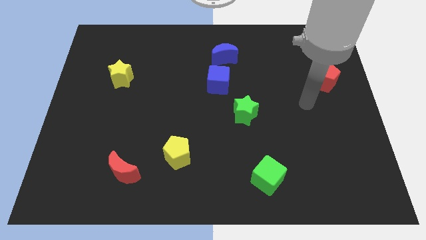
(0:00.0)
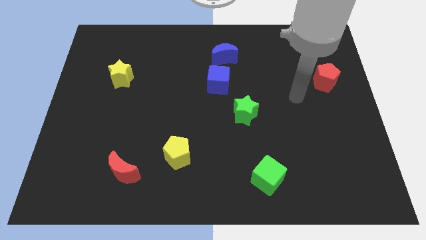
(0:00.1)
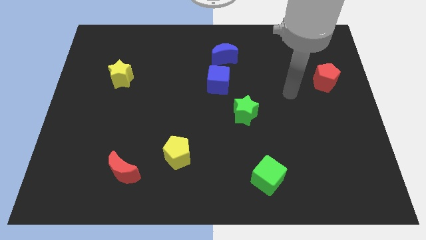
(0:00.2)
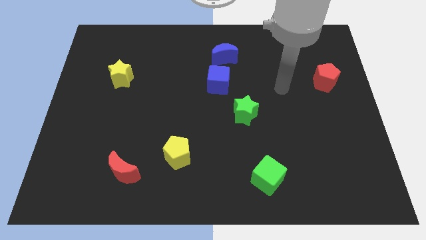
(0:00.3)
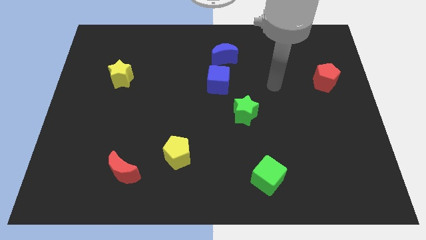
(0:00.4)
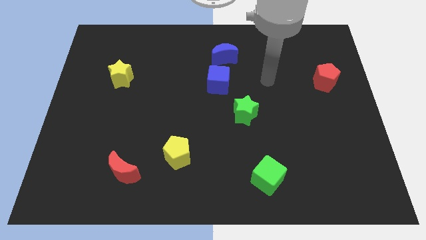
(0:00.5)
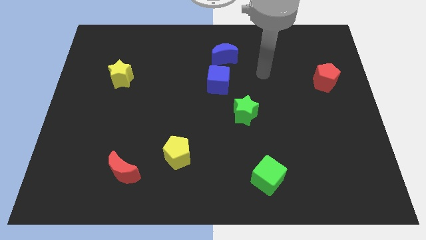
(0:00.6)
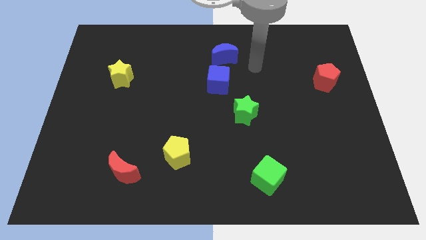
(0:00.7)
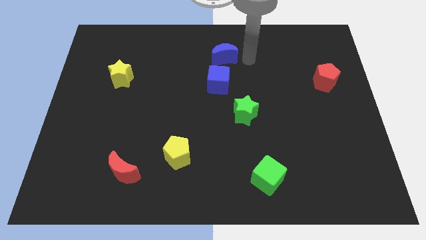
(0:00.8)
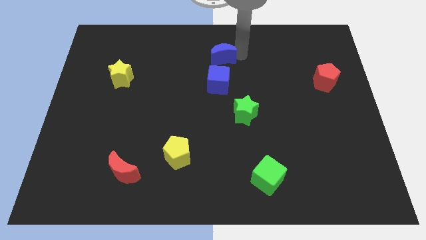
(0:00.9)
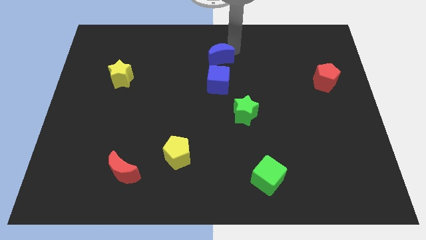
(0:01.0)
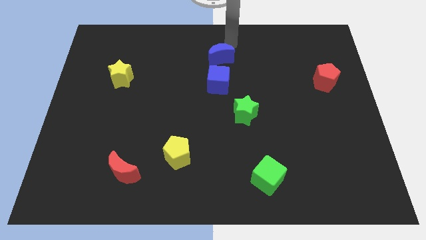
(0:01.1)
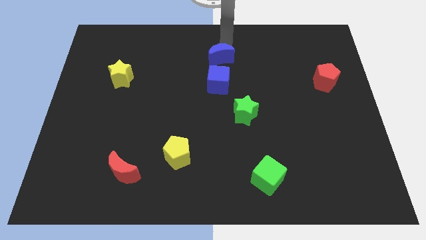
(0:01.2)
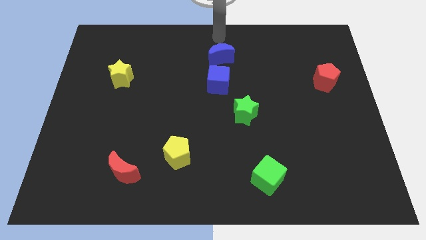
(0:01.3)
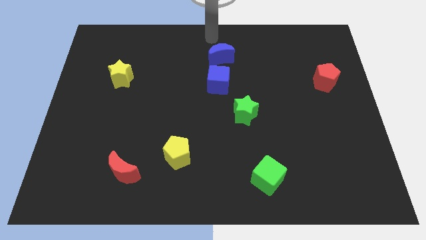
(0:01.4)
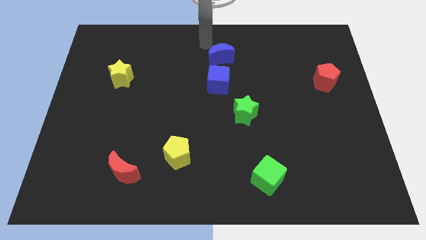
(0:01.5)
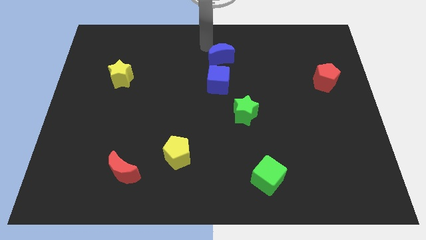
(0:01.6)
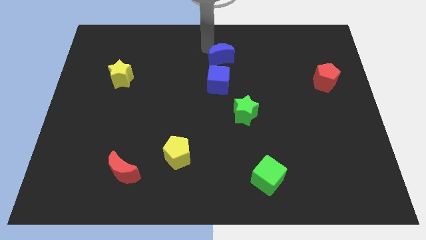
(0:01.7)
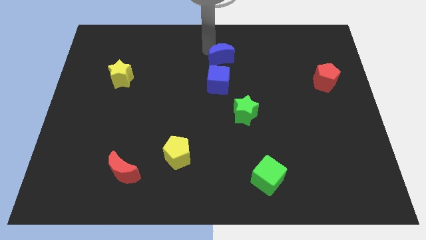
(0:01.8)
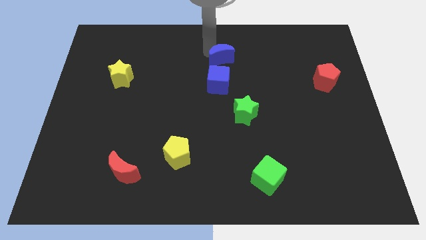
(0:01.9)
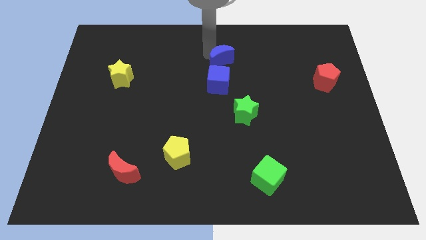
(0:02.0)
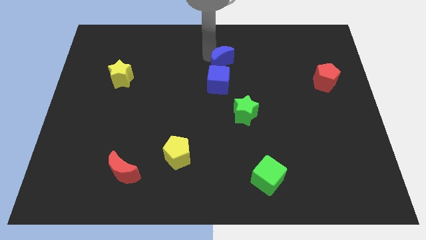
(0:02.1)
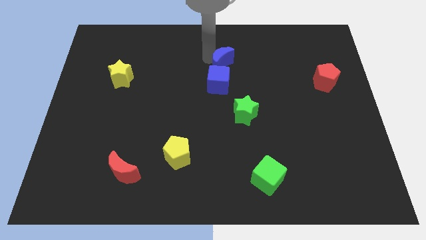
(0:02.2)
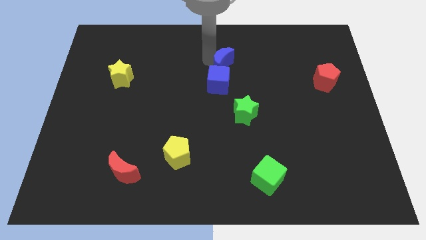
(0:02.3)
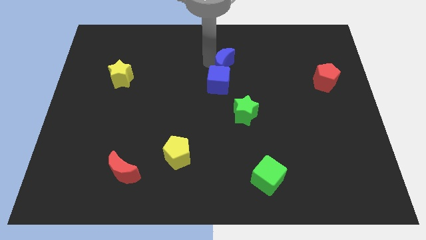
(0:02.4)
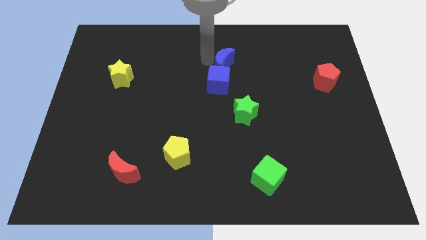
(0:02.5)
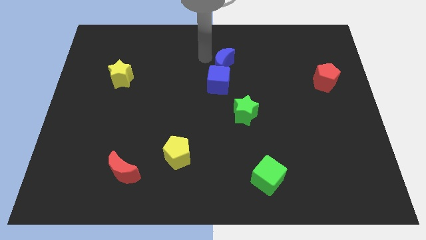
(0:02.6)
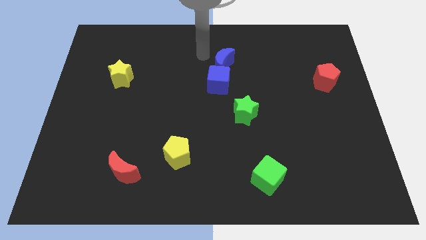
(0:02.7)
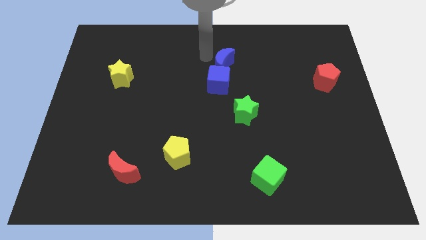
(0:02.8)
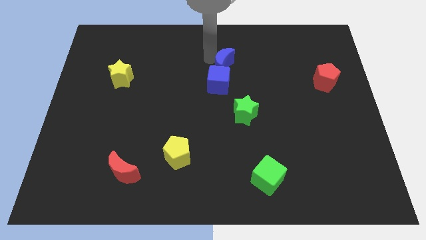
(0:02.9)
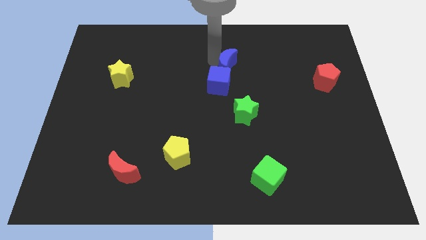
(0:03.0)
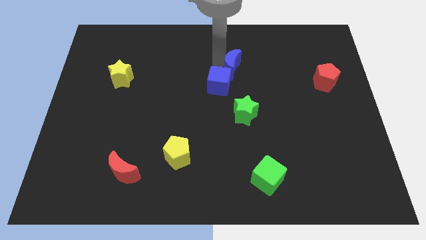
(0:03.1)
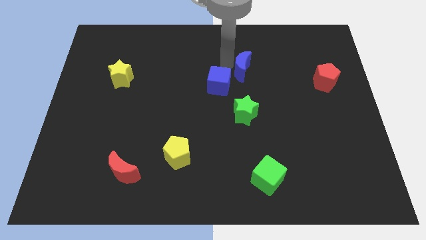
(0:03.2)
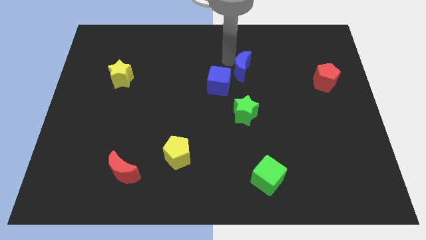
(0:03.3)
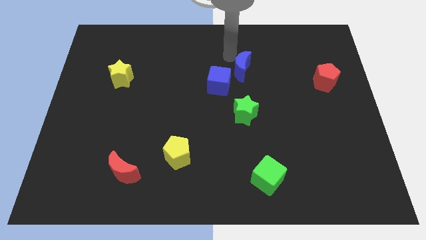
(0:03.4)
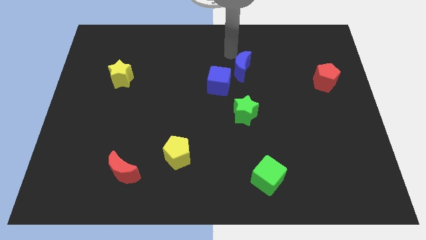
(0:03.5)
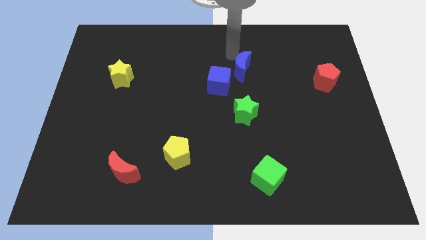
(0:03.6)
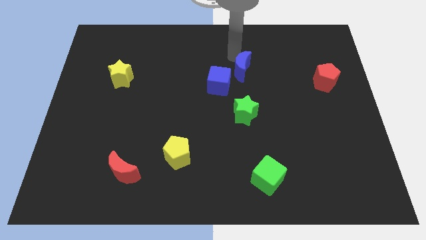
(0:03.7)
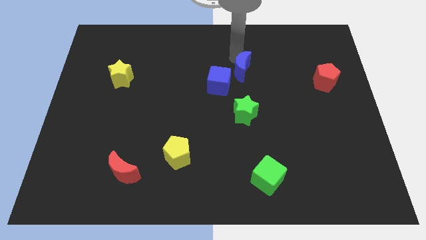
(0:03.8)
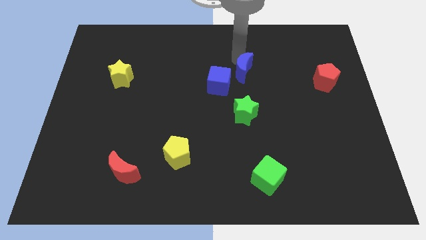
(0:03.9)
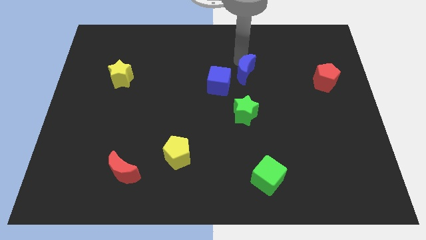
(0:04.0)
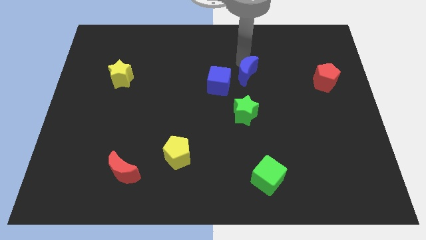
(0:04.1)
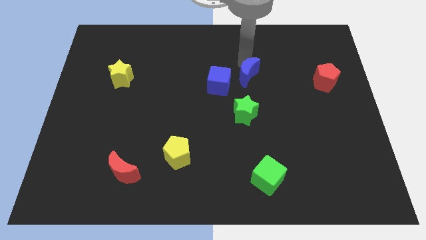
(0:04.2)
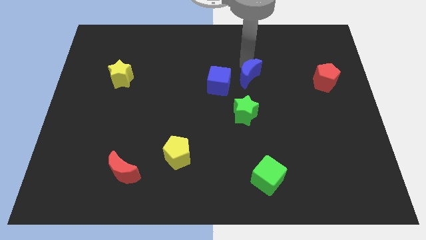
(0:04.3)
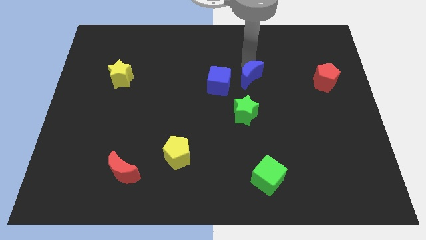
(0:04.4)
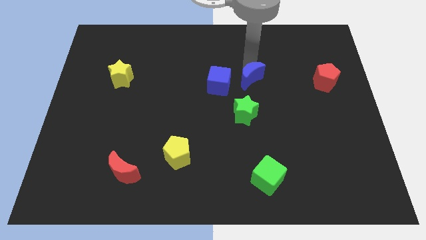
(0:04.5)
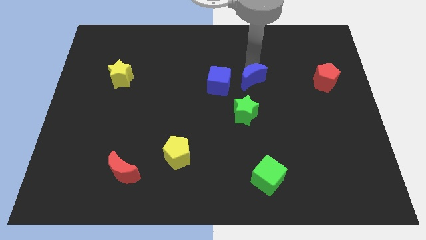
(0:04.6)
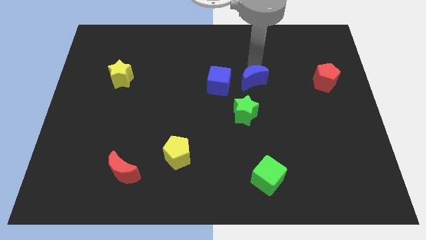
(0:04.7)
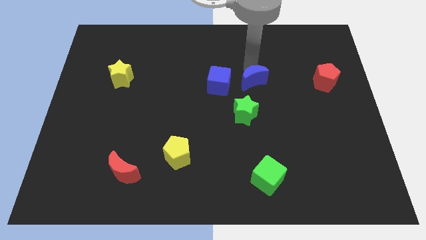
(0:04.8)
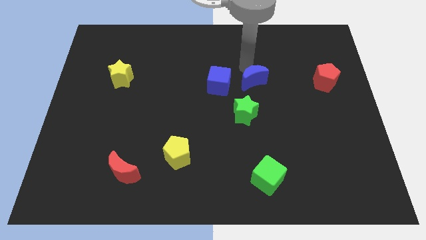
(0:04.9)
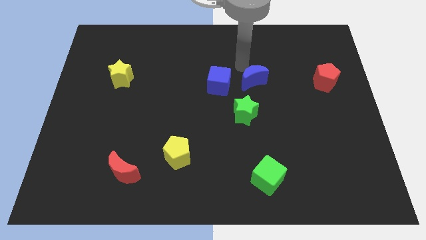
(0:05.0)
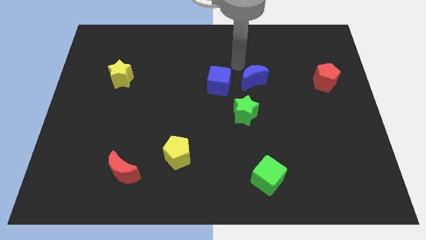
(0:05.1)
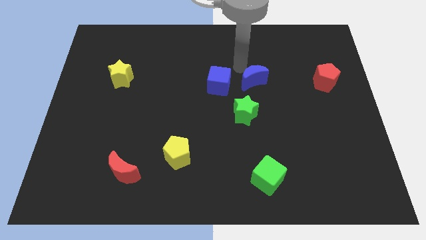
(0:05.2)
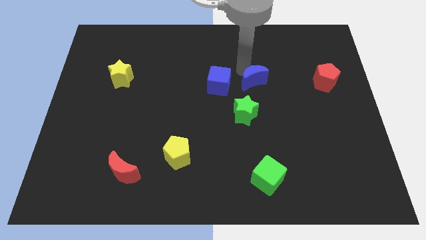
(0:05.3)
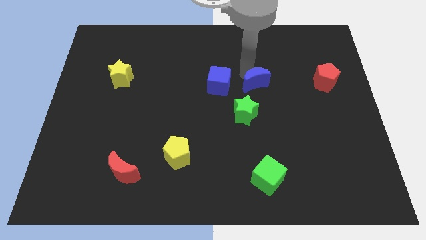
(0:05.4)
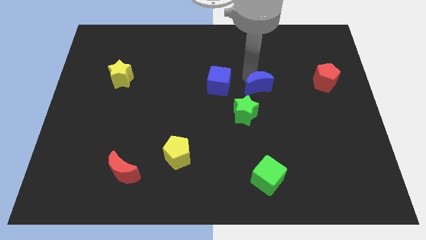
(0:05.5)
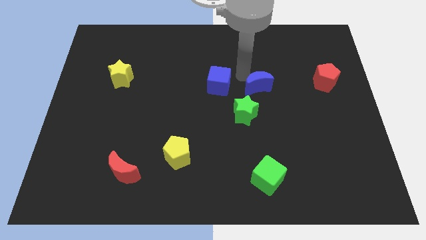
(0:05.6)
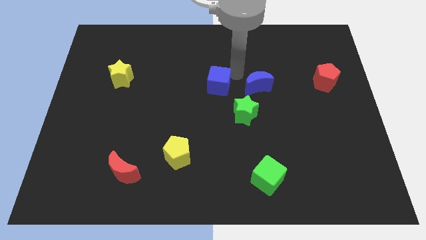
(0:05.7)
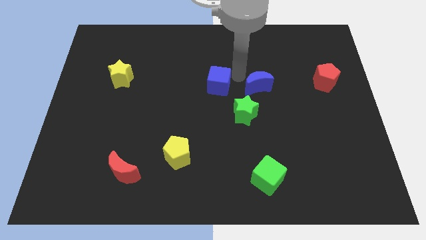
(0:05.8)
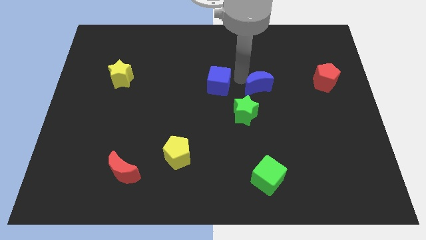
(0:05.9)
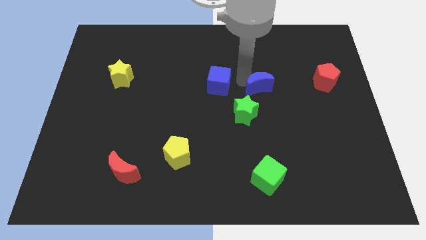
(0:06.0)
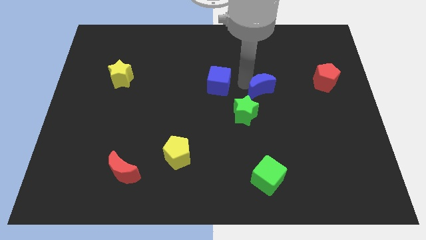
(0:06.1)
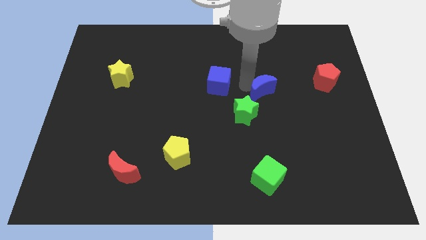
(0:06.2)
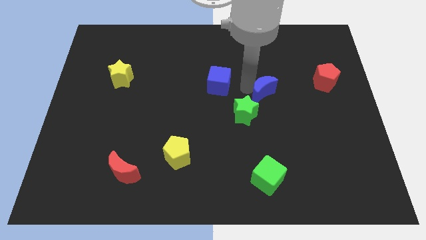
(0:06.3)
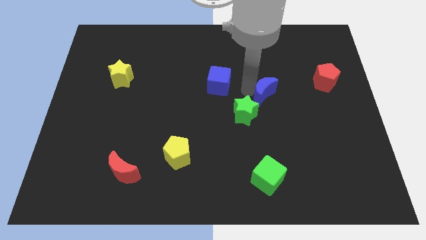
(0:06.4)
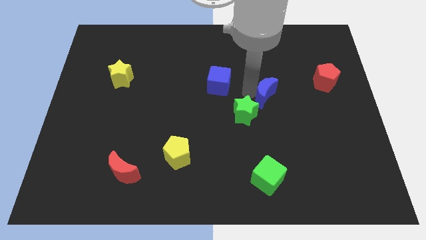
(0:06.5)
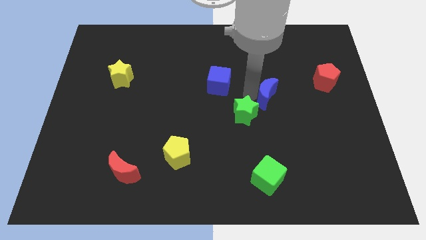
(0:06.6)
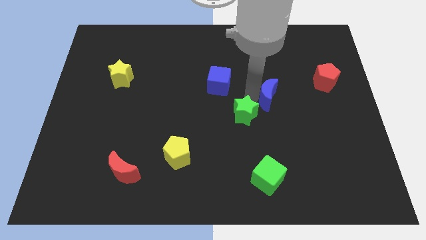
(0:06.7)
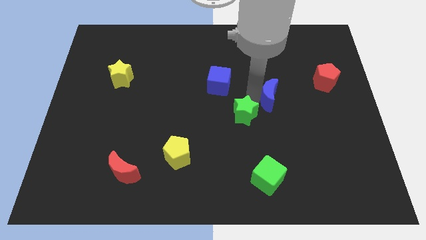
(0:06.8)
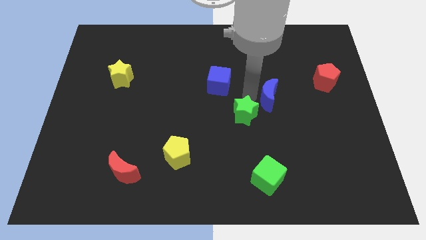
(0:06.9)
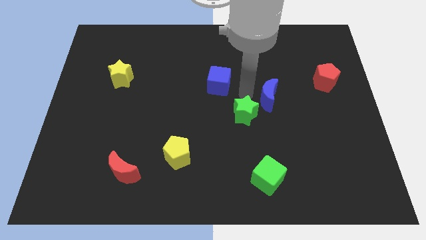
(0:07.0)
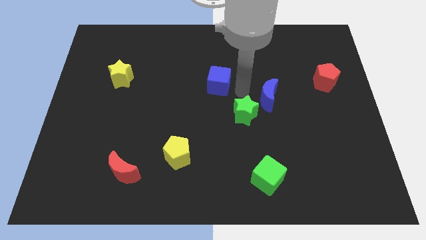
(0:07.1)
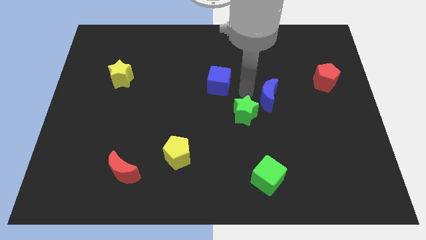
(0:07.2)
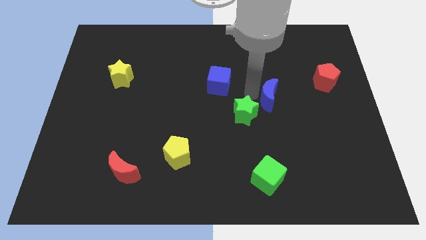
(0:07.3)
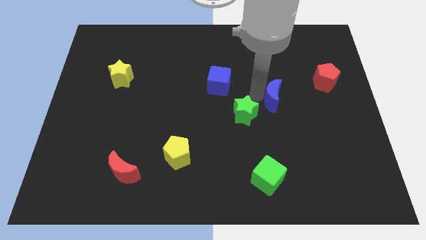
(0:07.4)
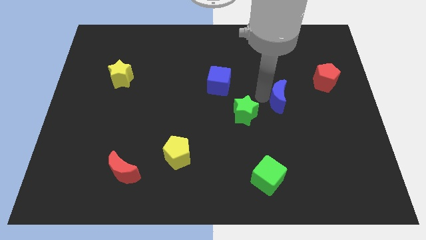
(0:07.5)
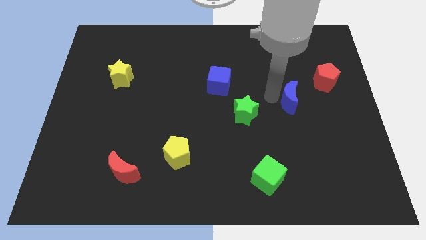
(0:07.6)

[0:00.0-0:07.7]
move the blue moon down and to the right diagonally

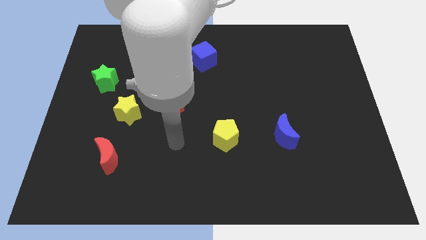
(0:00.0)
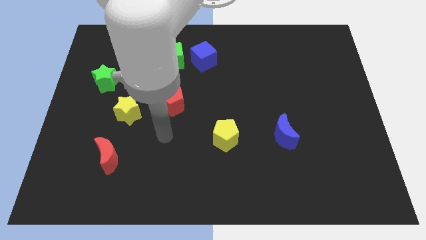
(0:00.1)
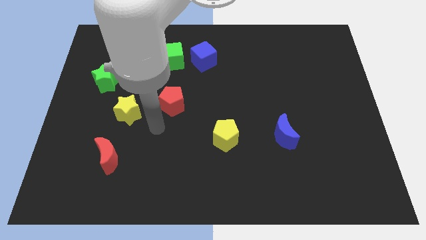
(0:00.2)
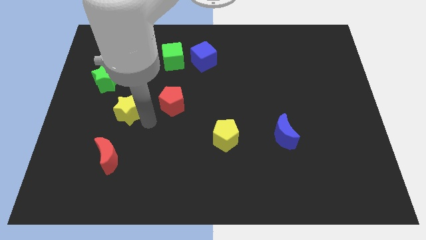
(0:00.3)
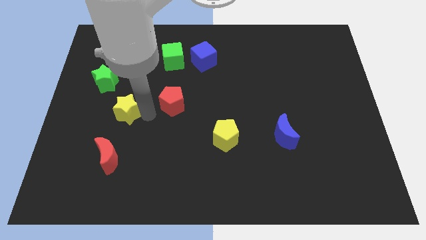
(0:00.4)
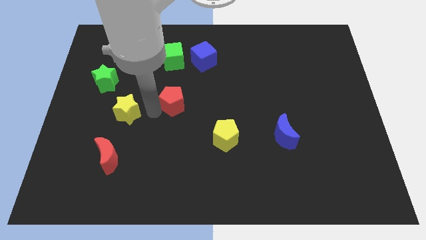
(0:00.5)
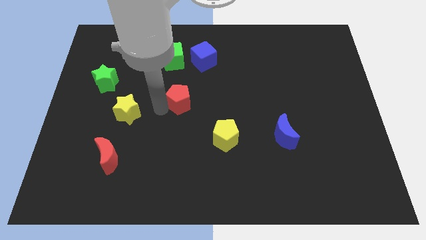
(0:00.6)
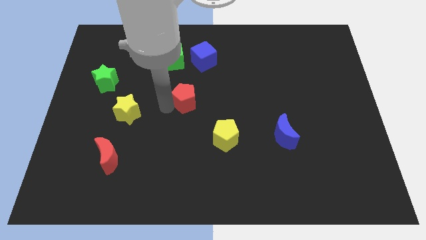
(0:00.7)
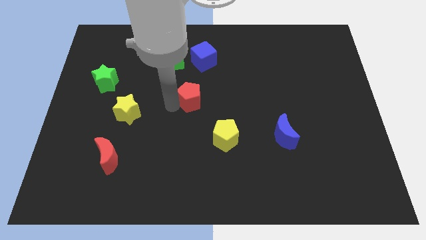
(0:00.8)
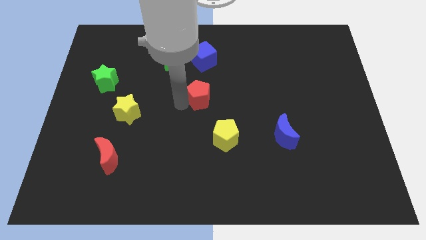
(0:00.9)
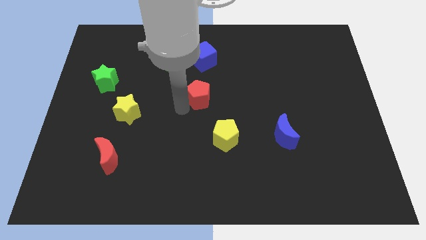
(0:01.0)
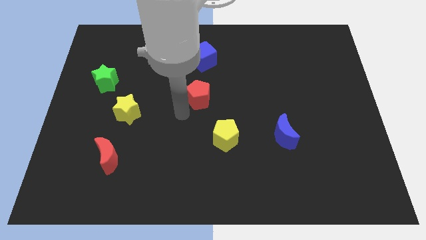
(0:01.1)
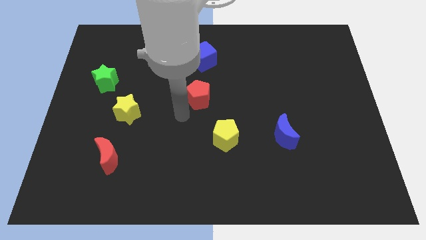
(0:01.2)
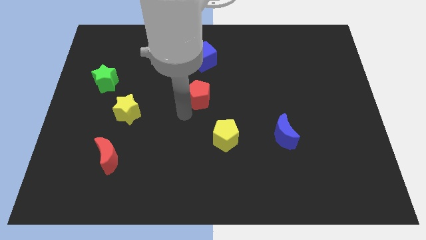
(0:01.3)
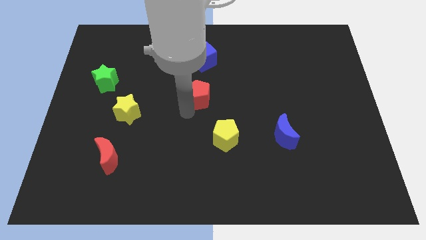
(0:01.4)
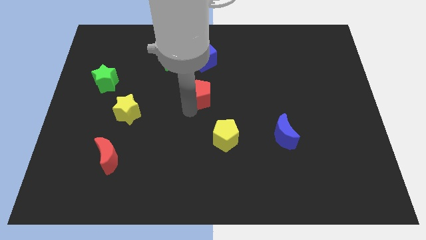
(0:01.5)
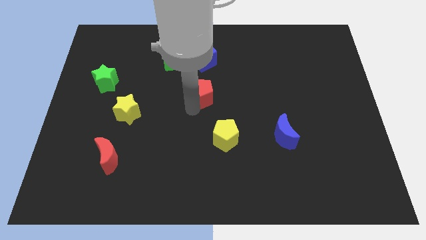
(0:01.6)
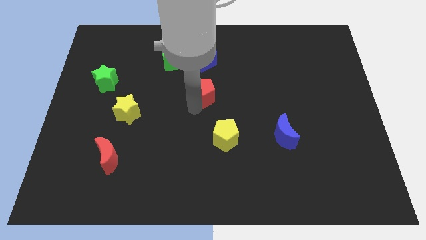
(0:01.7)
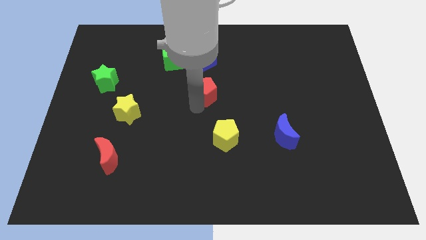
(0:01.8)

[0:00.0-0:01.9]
push the red pentagon up and to the right diagonally slightly
